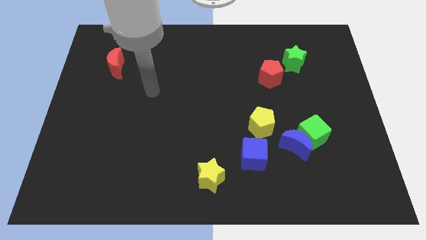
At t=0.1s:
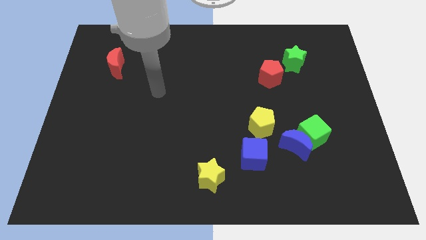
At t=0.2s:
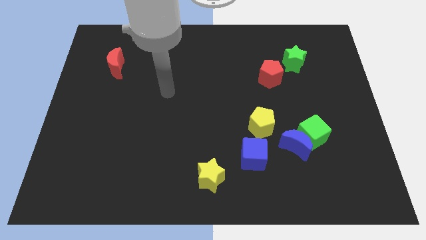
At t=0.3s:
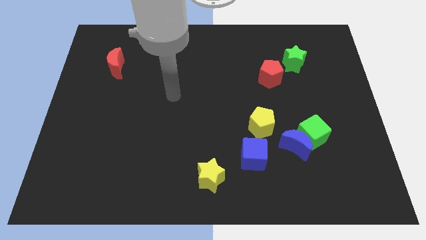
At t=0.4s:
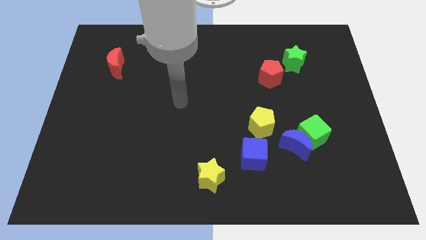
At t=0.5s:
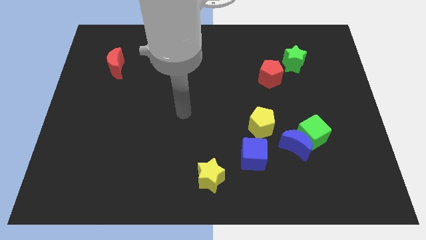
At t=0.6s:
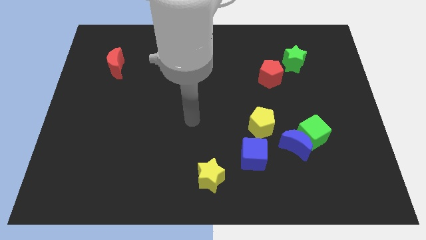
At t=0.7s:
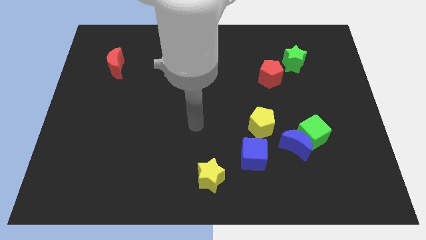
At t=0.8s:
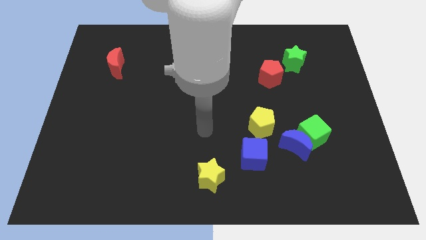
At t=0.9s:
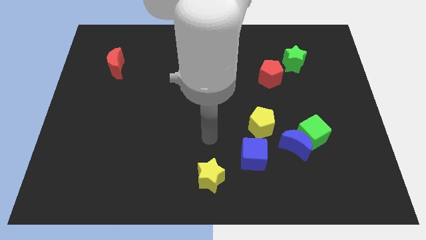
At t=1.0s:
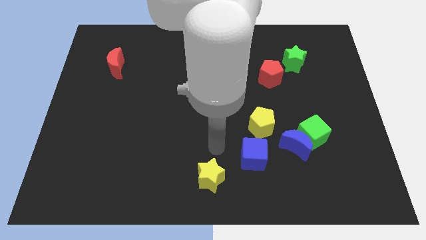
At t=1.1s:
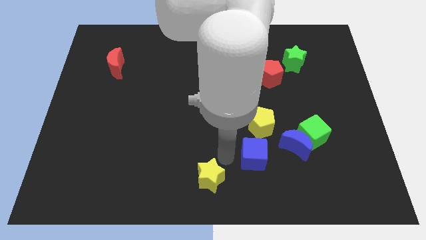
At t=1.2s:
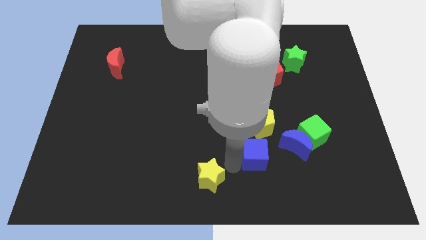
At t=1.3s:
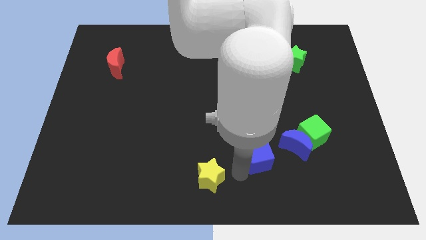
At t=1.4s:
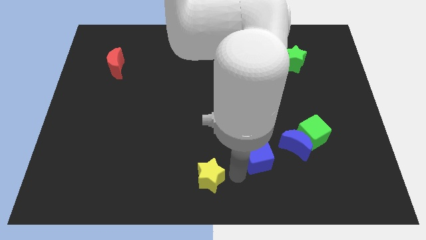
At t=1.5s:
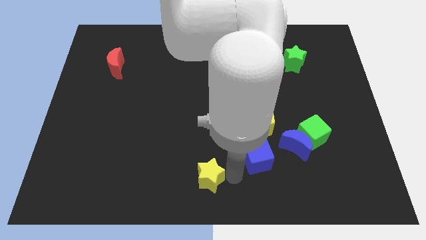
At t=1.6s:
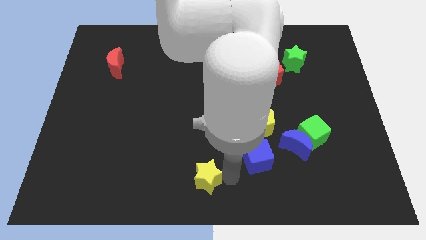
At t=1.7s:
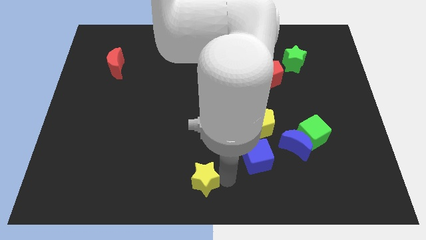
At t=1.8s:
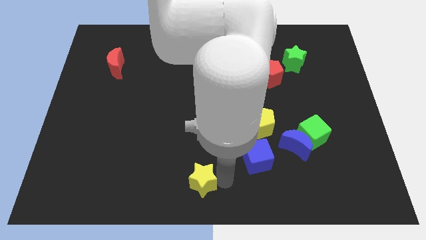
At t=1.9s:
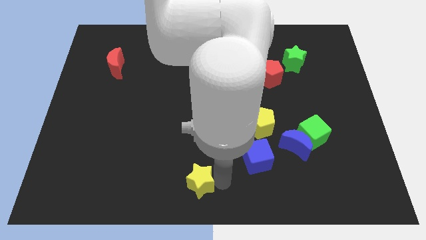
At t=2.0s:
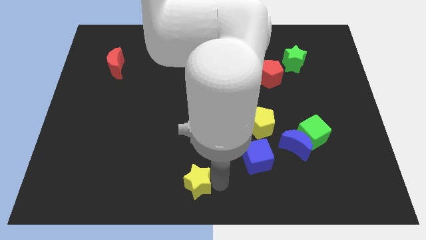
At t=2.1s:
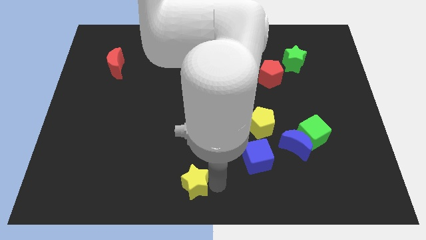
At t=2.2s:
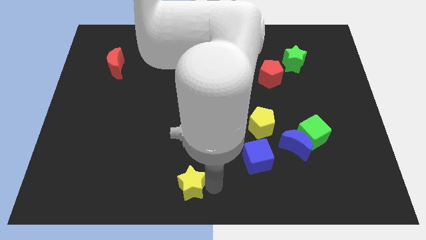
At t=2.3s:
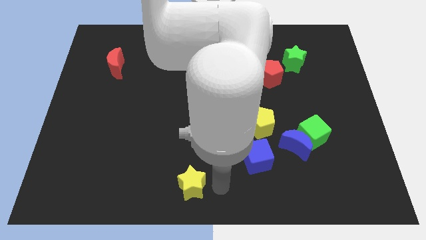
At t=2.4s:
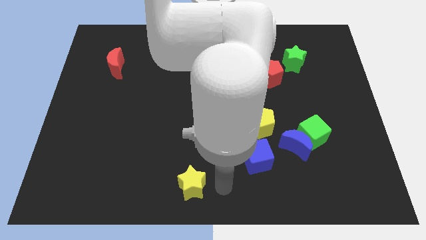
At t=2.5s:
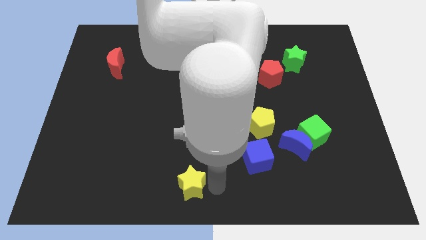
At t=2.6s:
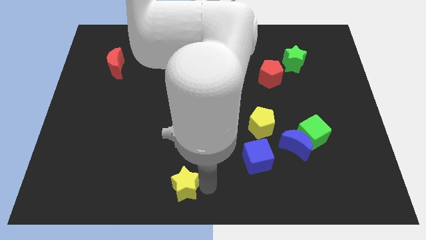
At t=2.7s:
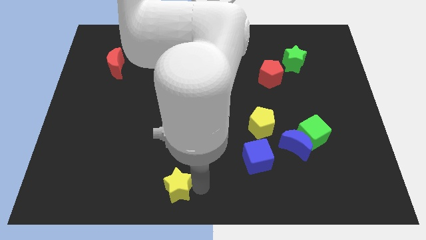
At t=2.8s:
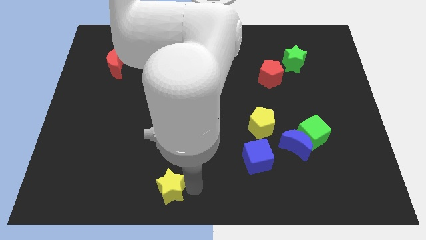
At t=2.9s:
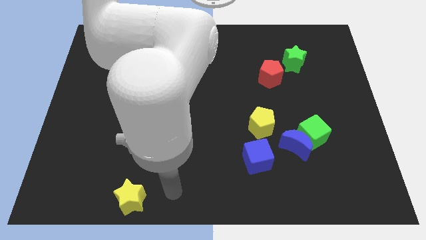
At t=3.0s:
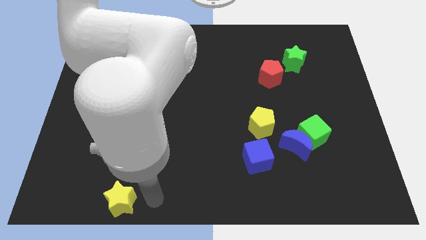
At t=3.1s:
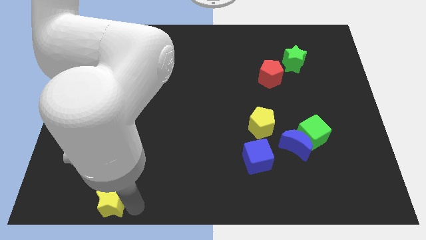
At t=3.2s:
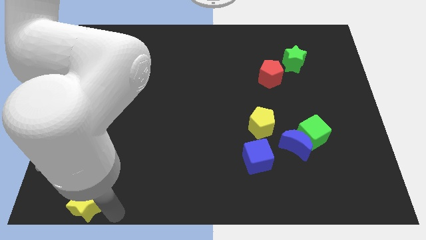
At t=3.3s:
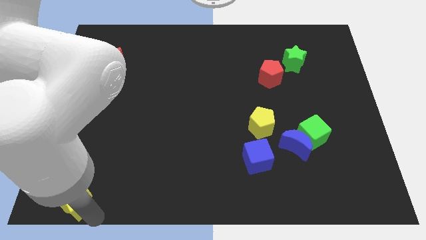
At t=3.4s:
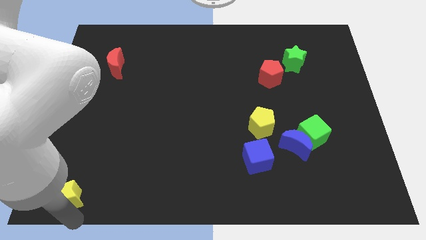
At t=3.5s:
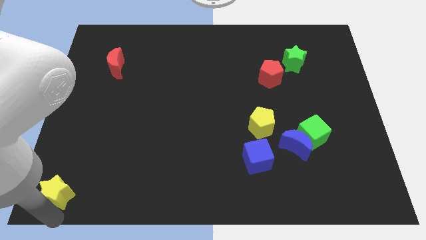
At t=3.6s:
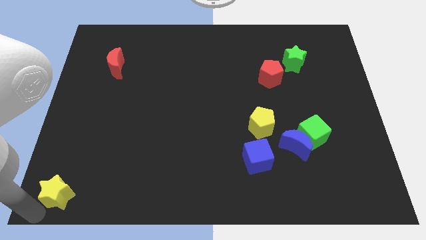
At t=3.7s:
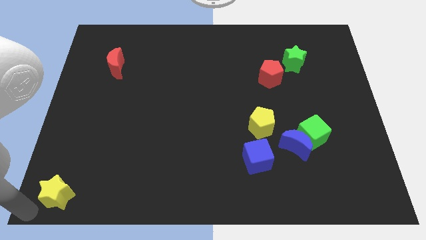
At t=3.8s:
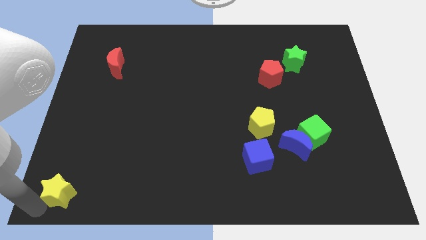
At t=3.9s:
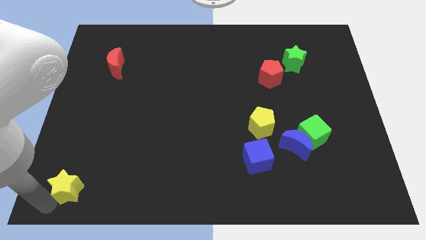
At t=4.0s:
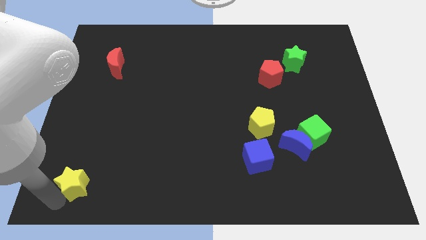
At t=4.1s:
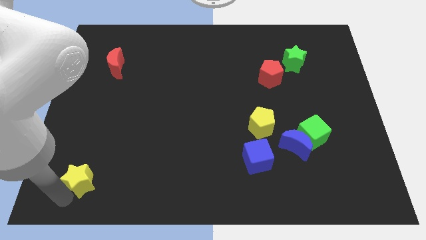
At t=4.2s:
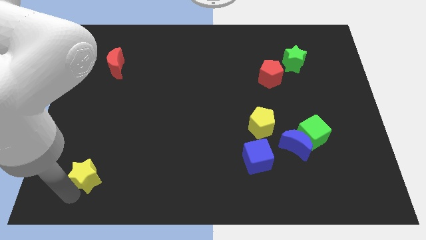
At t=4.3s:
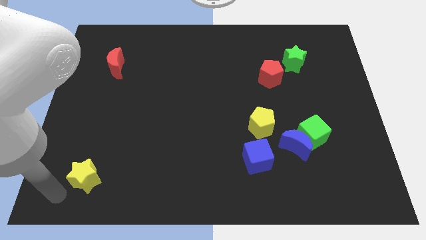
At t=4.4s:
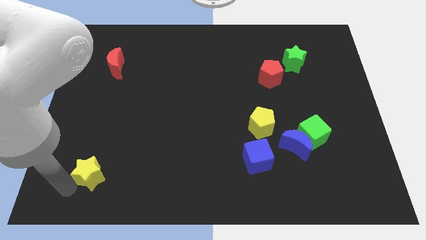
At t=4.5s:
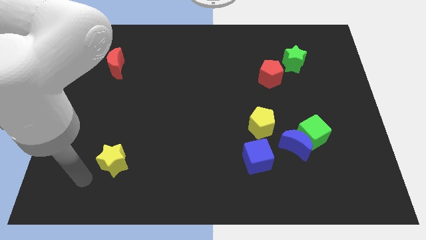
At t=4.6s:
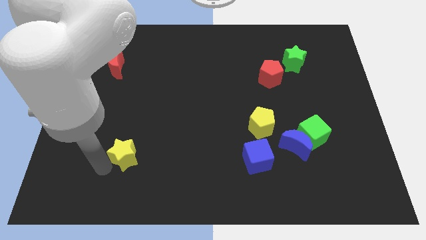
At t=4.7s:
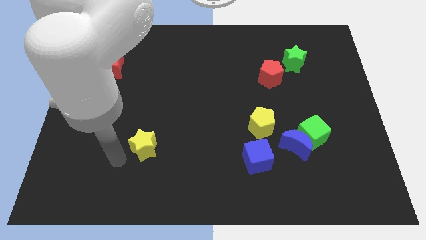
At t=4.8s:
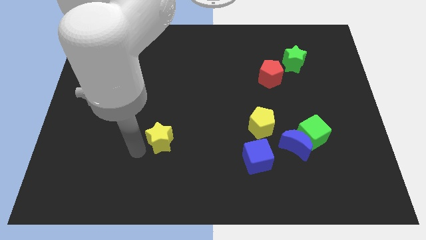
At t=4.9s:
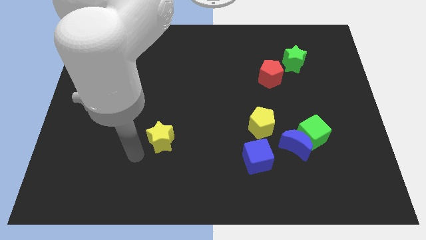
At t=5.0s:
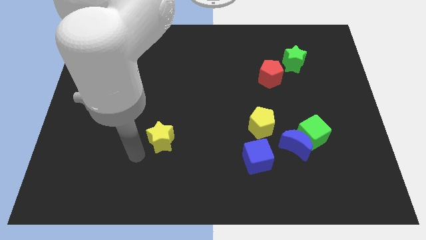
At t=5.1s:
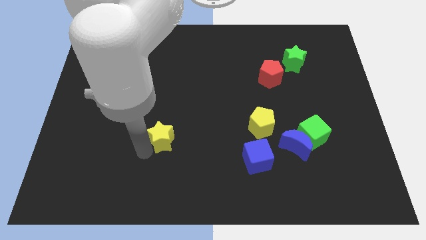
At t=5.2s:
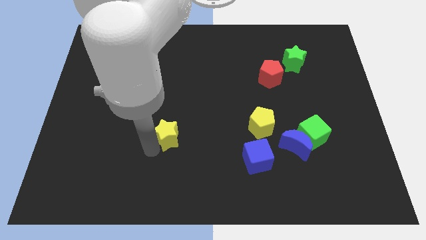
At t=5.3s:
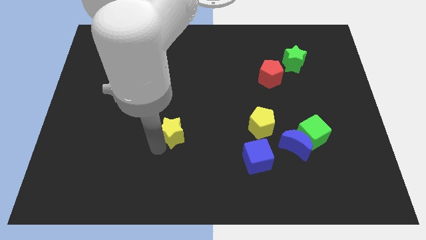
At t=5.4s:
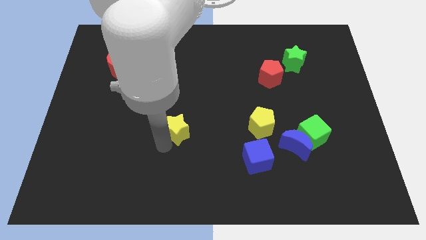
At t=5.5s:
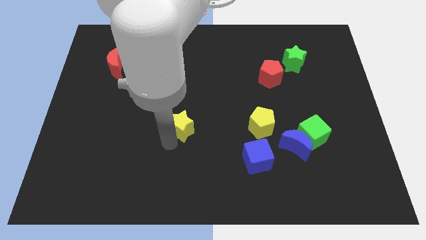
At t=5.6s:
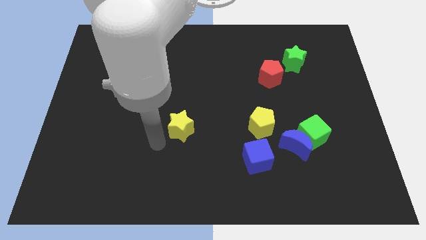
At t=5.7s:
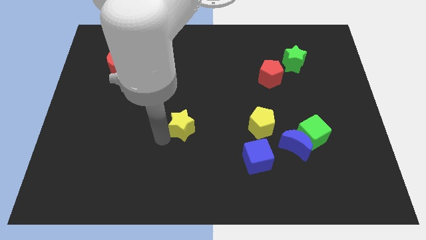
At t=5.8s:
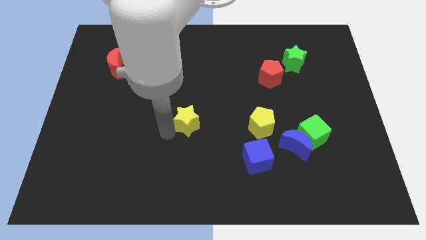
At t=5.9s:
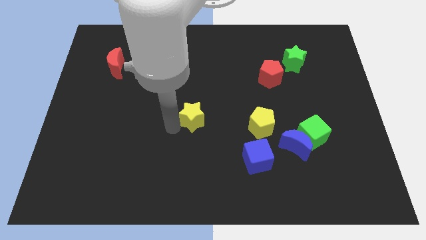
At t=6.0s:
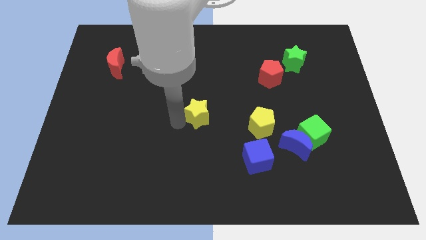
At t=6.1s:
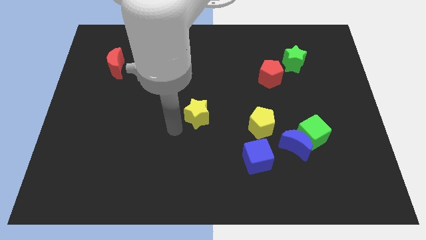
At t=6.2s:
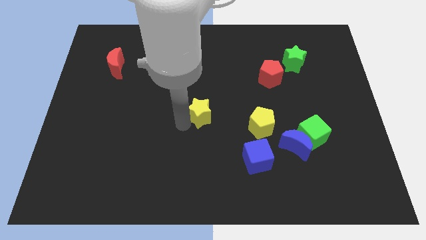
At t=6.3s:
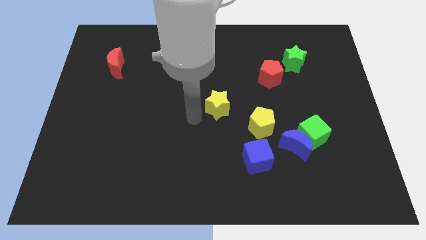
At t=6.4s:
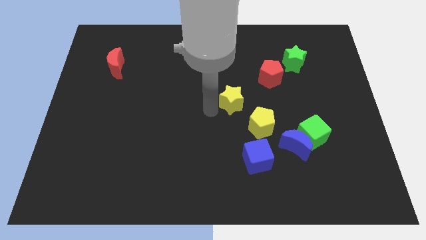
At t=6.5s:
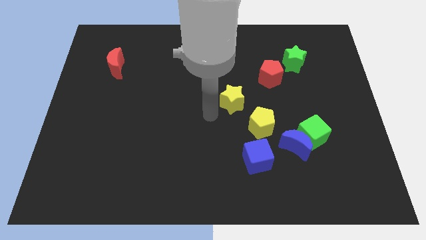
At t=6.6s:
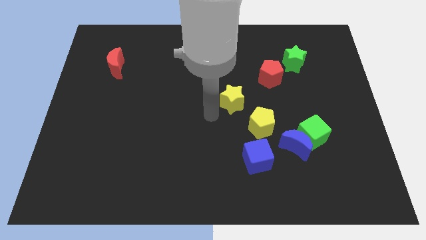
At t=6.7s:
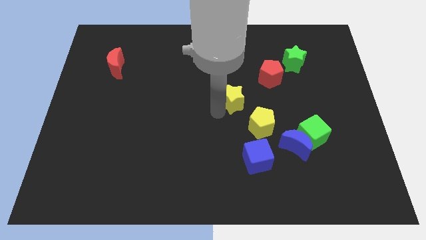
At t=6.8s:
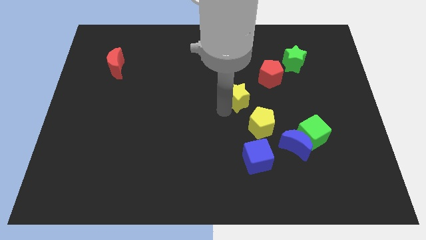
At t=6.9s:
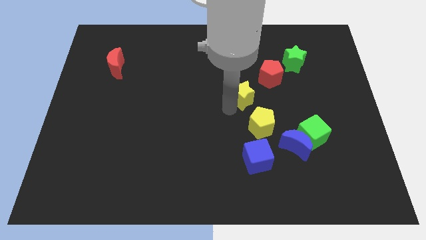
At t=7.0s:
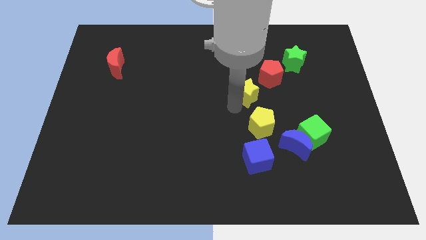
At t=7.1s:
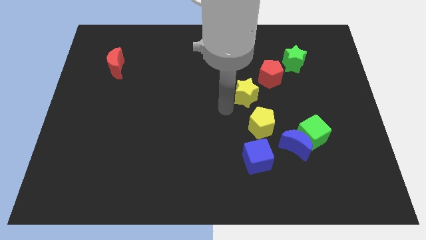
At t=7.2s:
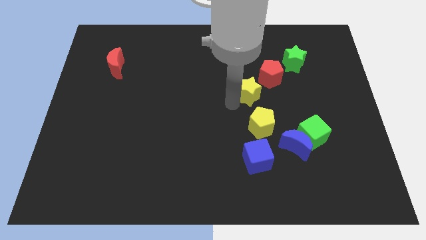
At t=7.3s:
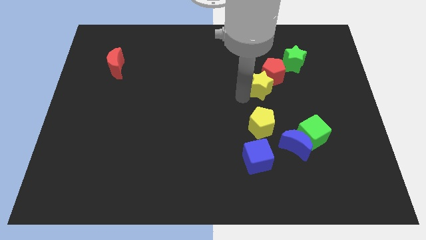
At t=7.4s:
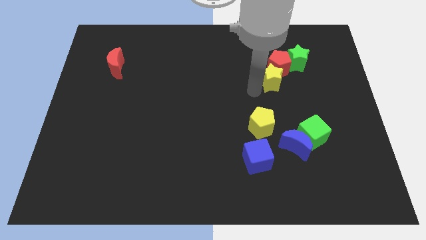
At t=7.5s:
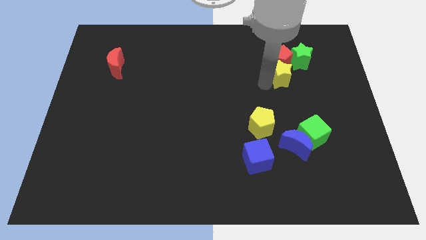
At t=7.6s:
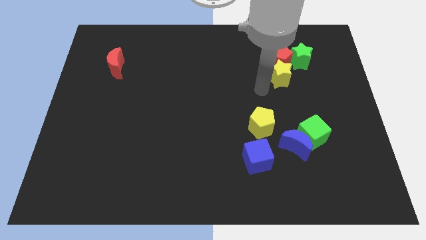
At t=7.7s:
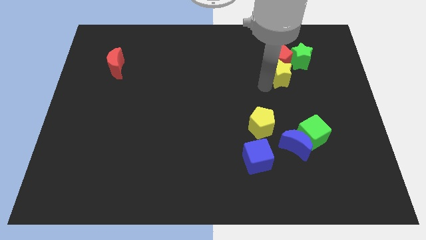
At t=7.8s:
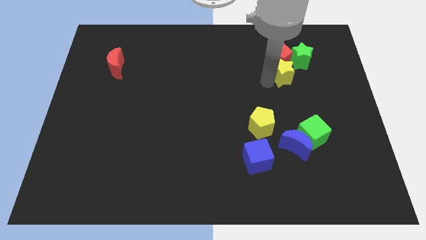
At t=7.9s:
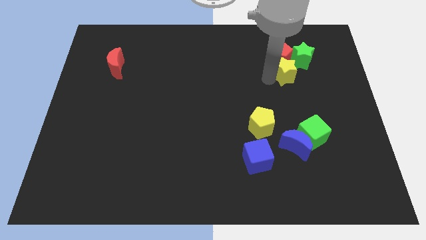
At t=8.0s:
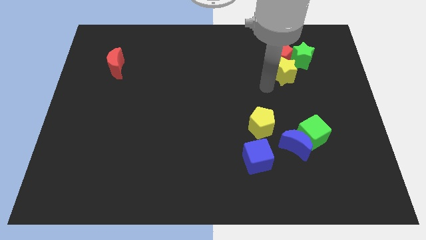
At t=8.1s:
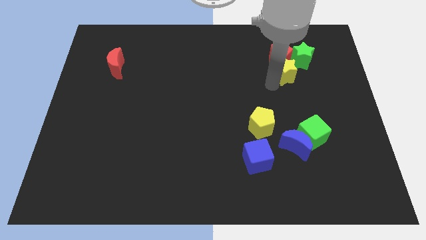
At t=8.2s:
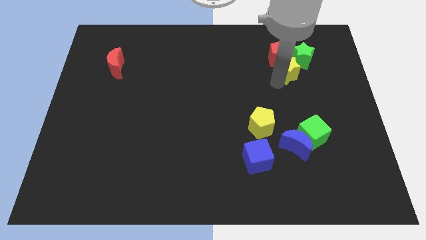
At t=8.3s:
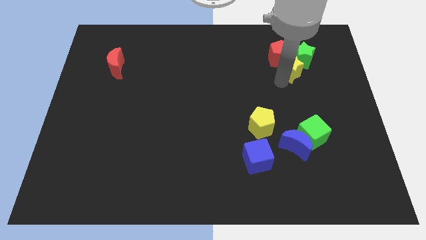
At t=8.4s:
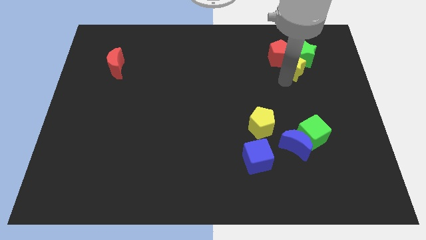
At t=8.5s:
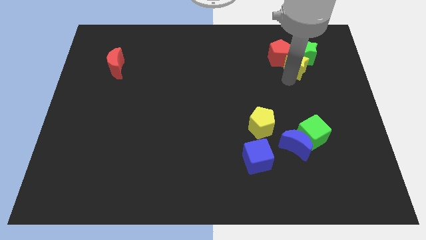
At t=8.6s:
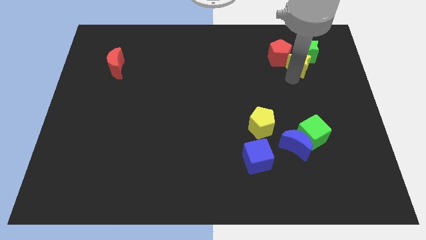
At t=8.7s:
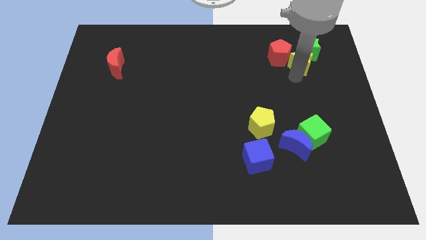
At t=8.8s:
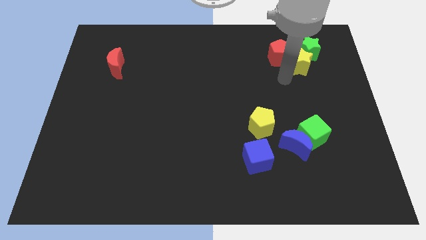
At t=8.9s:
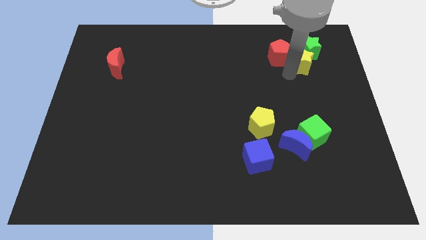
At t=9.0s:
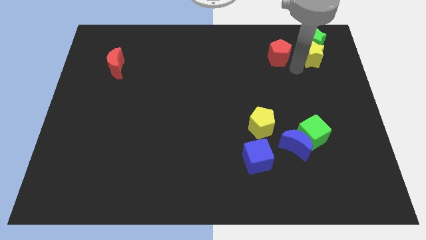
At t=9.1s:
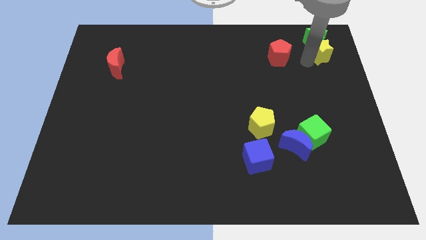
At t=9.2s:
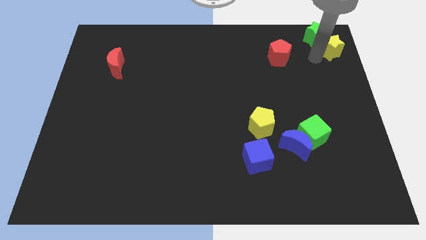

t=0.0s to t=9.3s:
put the yellow star to the top right
